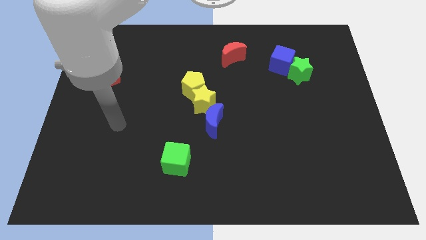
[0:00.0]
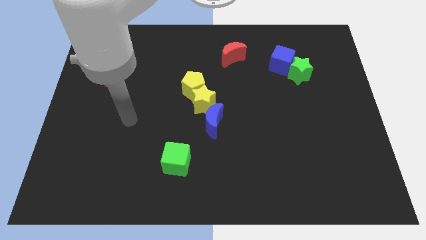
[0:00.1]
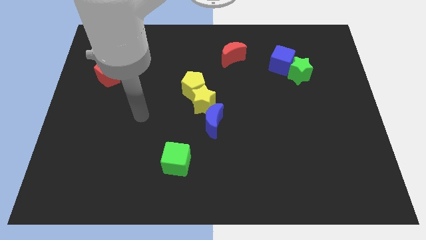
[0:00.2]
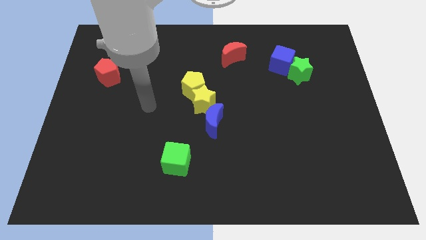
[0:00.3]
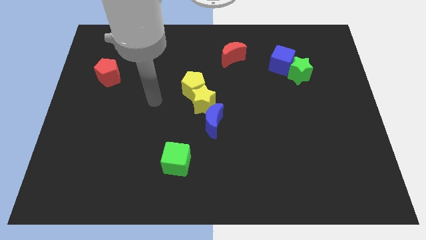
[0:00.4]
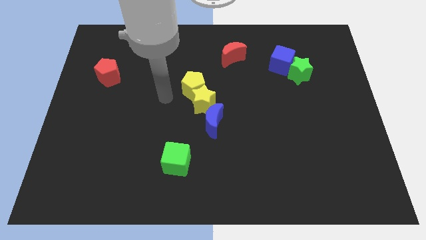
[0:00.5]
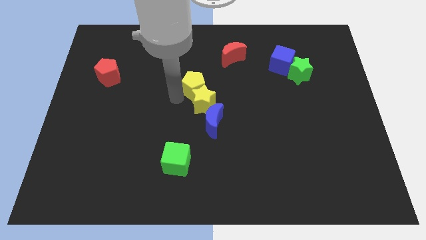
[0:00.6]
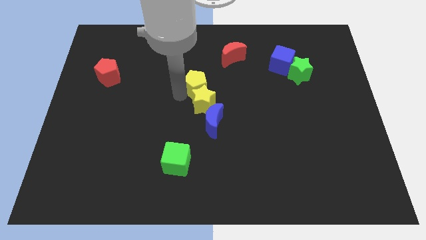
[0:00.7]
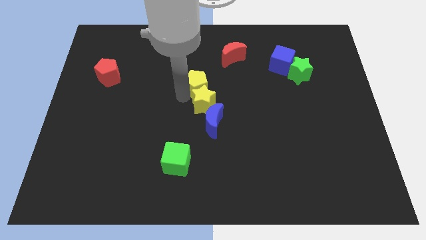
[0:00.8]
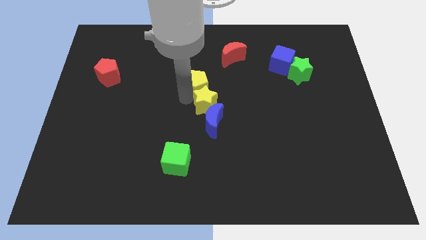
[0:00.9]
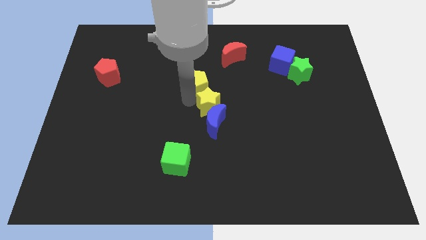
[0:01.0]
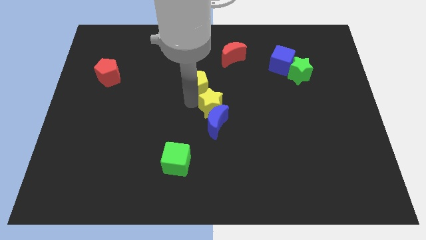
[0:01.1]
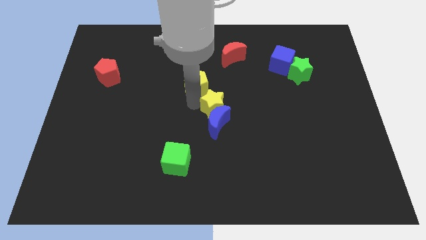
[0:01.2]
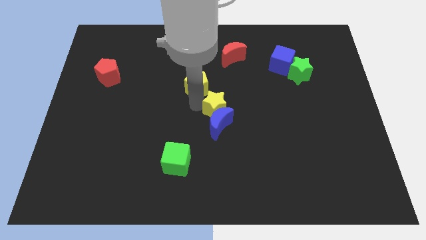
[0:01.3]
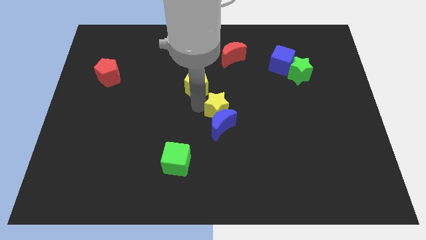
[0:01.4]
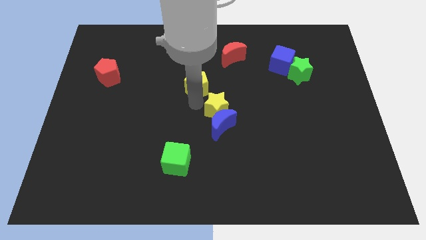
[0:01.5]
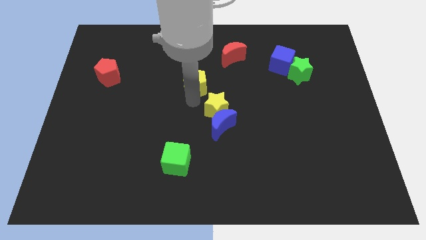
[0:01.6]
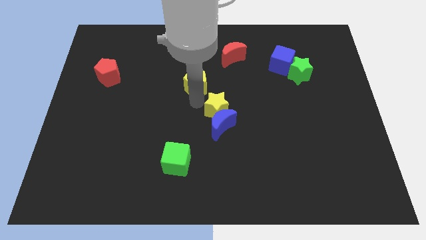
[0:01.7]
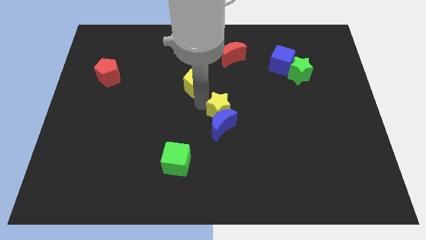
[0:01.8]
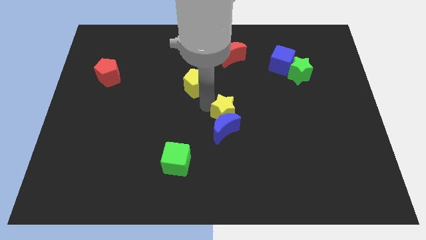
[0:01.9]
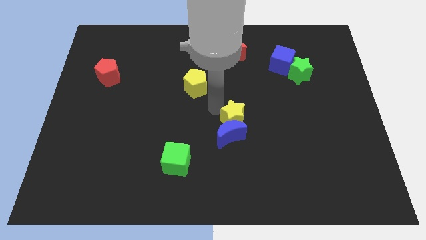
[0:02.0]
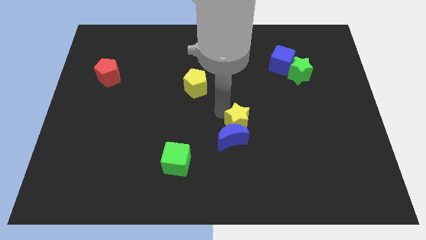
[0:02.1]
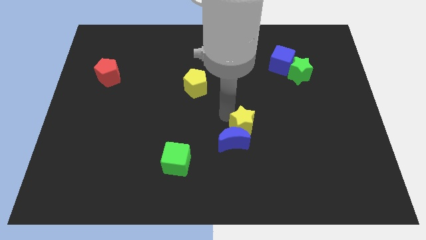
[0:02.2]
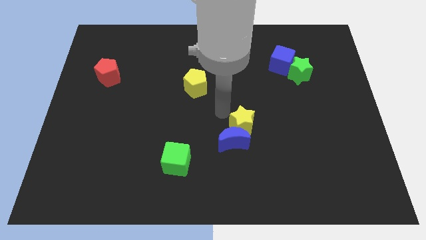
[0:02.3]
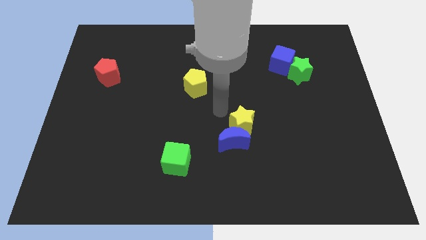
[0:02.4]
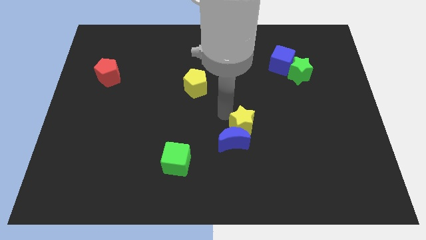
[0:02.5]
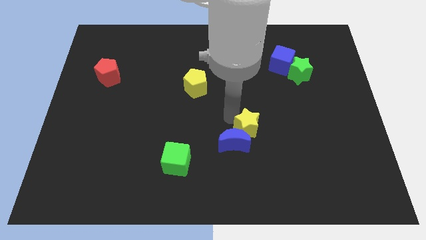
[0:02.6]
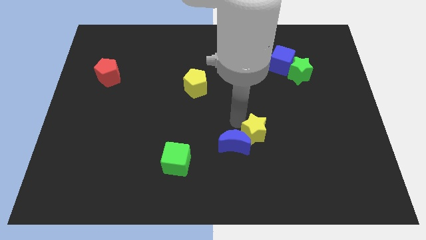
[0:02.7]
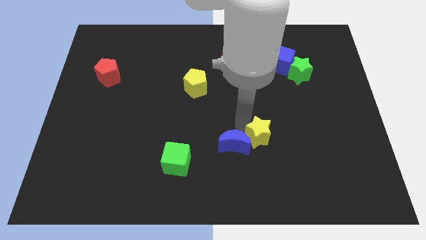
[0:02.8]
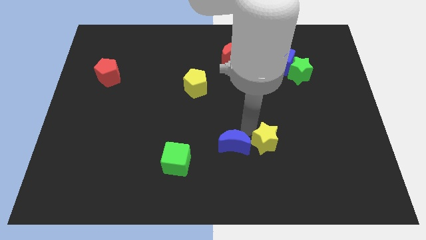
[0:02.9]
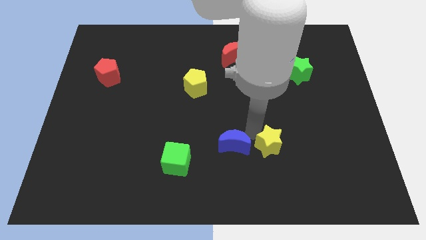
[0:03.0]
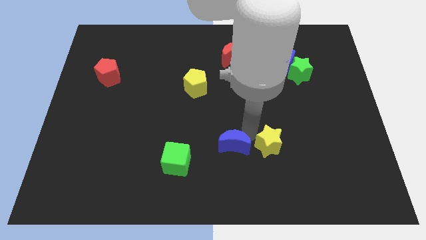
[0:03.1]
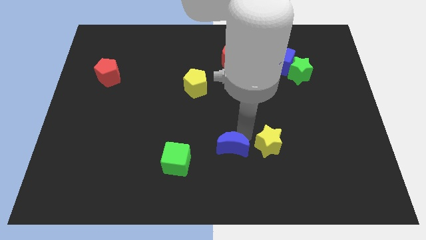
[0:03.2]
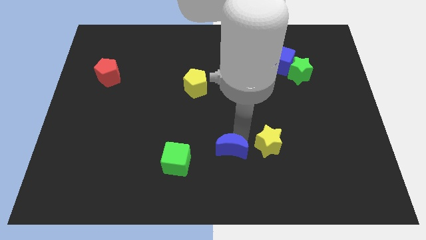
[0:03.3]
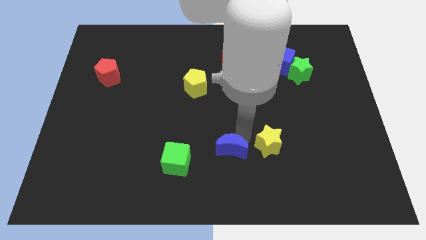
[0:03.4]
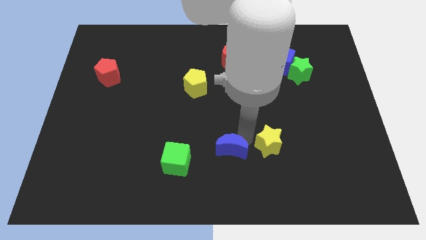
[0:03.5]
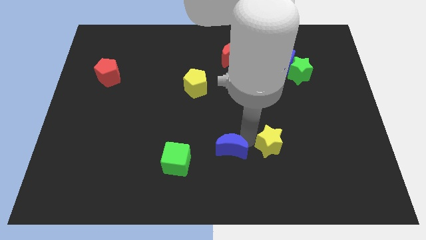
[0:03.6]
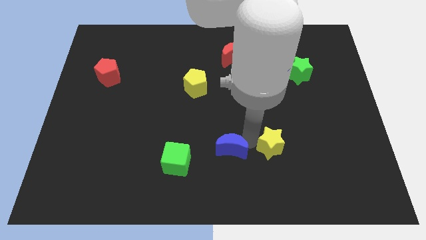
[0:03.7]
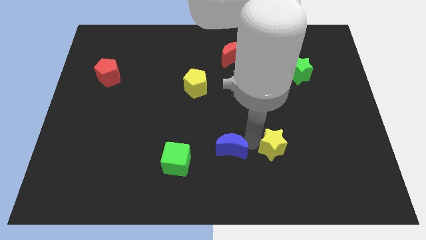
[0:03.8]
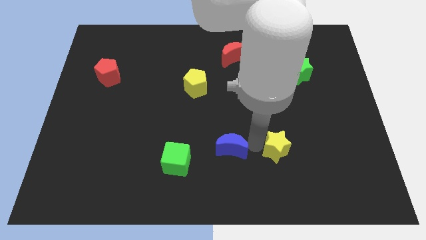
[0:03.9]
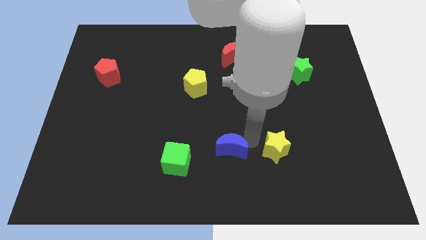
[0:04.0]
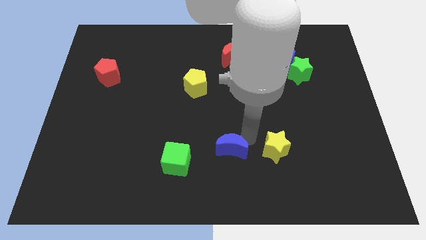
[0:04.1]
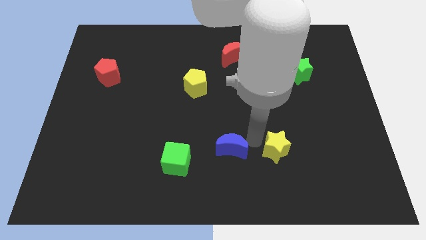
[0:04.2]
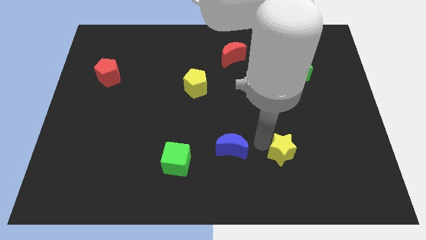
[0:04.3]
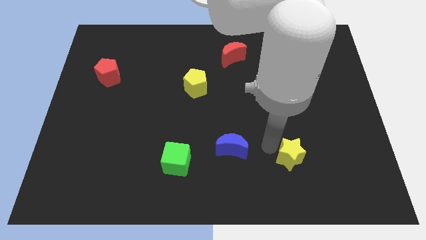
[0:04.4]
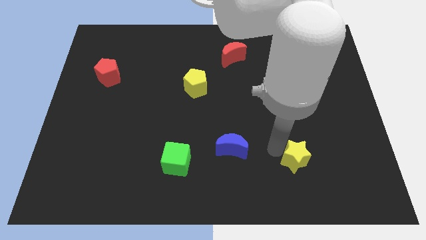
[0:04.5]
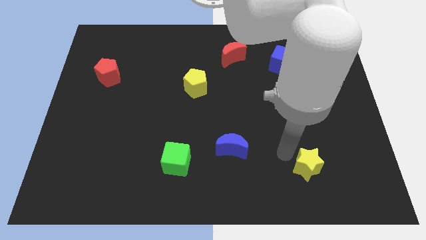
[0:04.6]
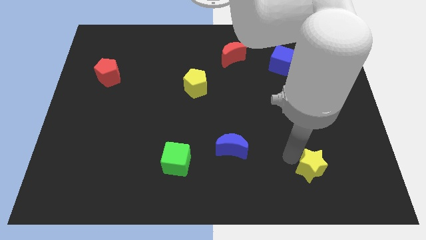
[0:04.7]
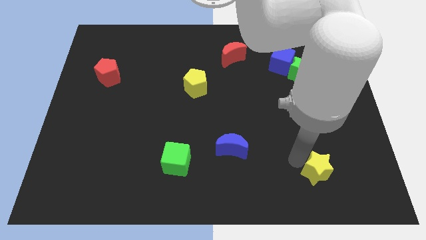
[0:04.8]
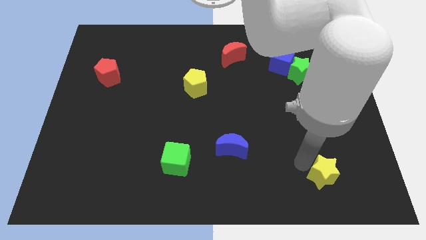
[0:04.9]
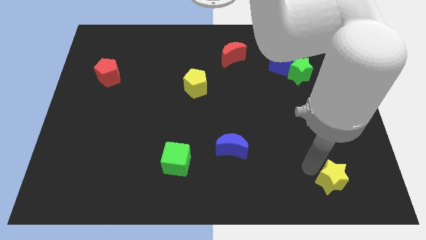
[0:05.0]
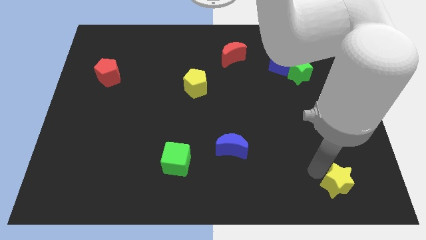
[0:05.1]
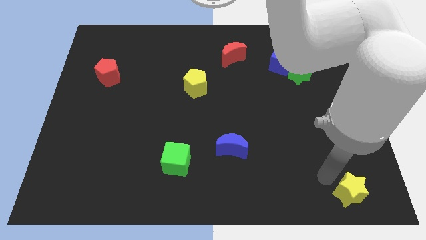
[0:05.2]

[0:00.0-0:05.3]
slide the yellow star to the lower right corner

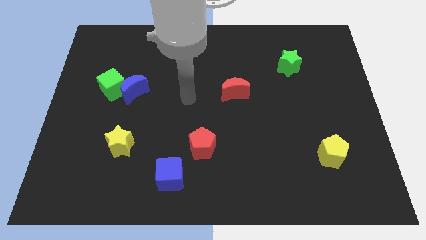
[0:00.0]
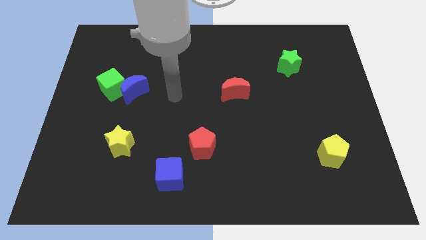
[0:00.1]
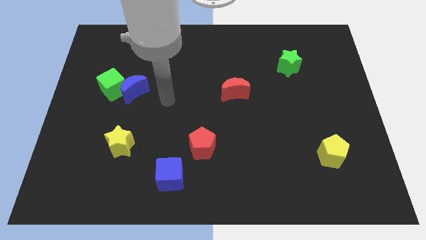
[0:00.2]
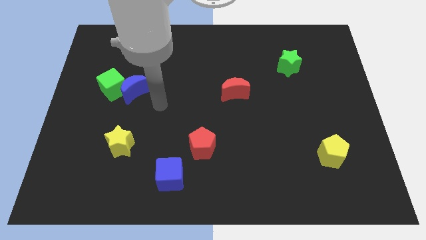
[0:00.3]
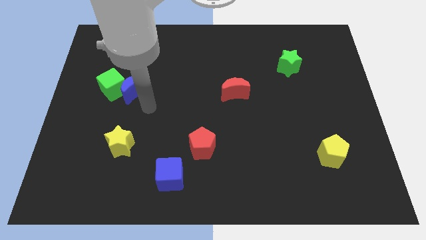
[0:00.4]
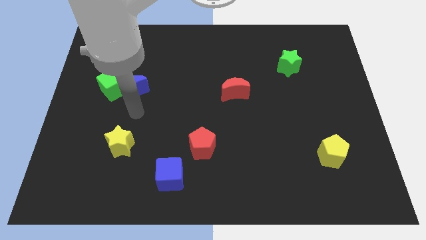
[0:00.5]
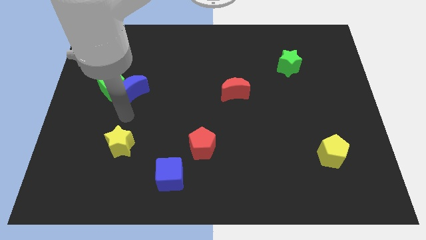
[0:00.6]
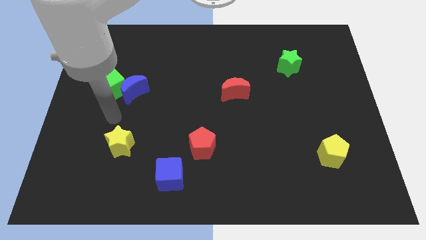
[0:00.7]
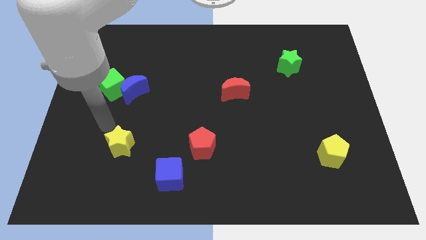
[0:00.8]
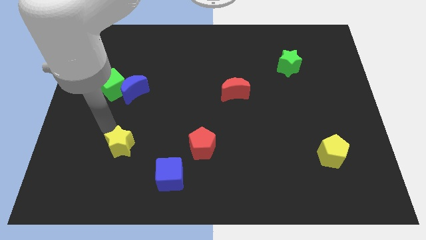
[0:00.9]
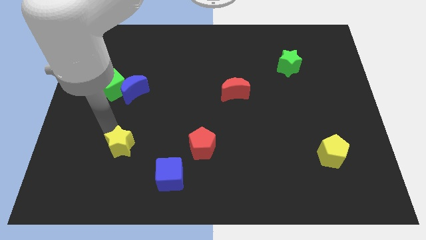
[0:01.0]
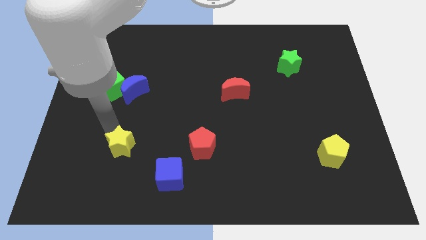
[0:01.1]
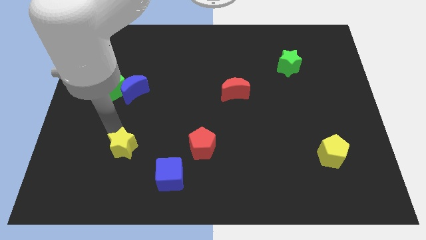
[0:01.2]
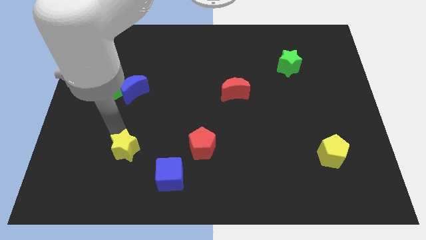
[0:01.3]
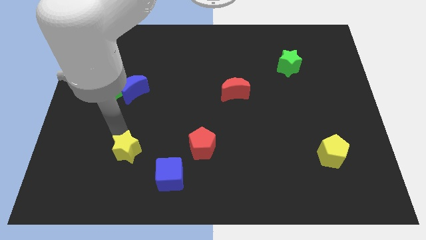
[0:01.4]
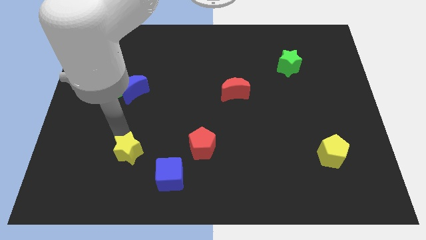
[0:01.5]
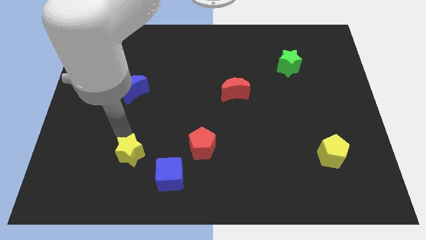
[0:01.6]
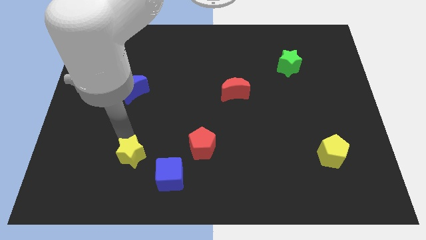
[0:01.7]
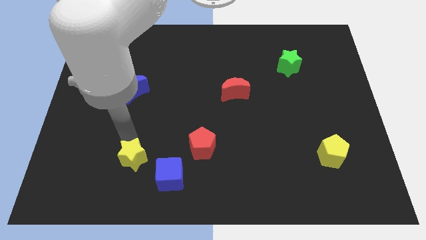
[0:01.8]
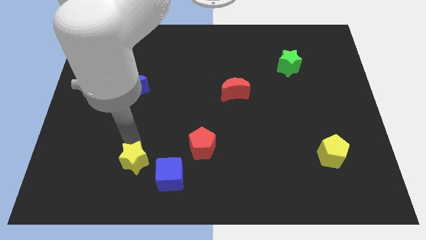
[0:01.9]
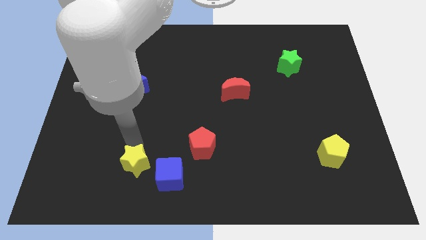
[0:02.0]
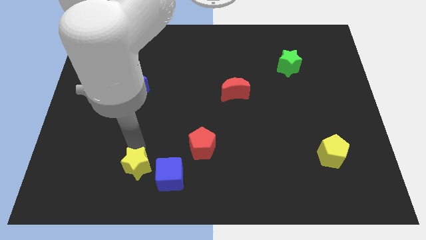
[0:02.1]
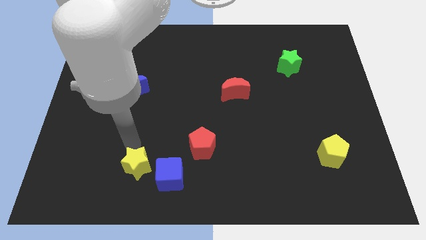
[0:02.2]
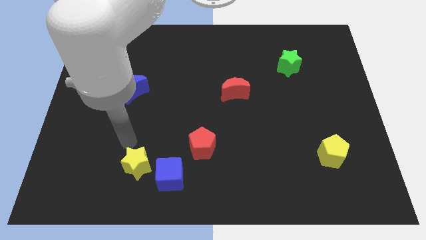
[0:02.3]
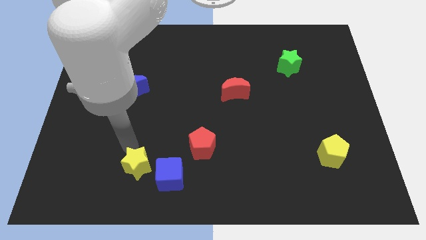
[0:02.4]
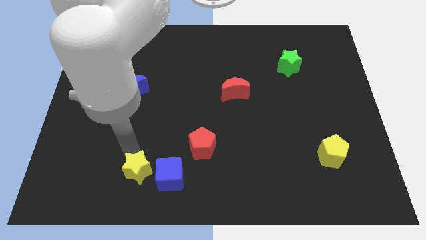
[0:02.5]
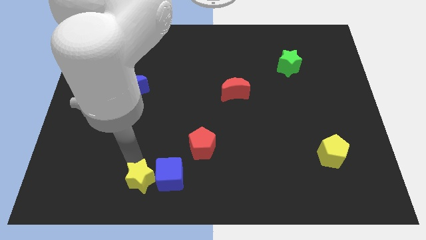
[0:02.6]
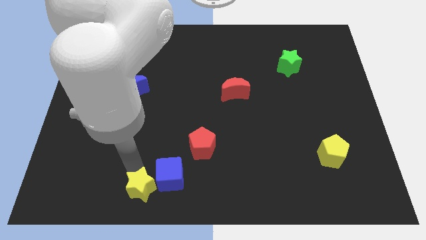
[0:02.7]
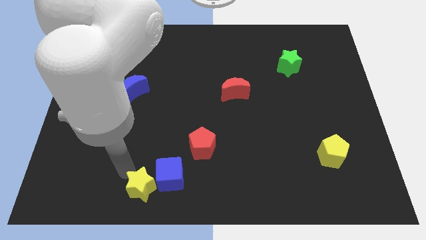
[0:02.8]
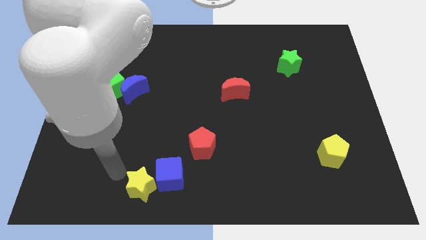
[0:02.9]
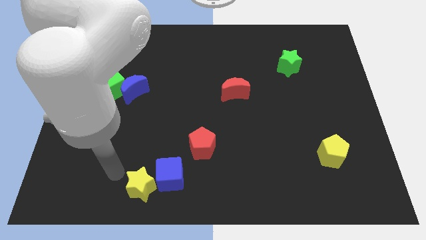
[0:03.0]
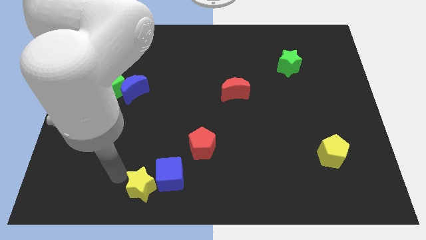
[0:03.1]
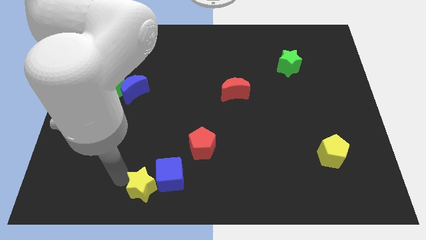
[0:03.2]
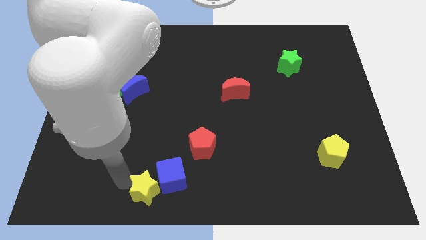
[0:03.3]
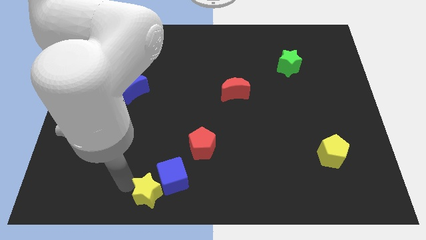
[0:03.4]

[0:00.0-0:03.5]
move the yellow star to the bottom
